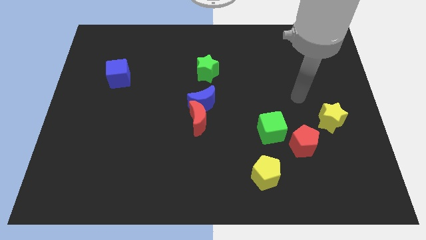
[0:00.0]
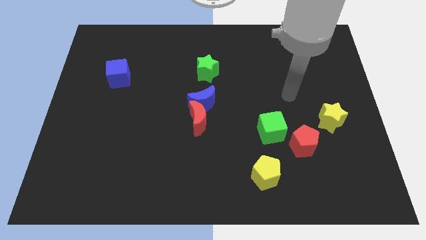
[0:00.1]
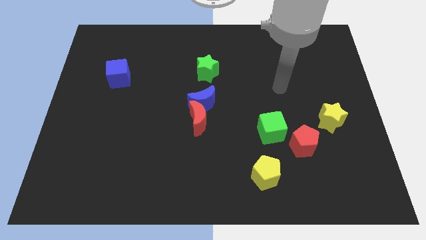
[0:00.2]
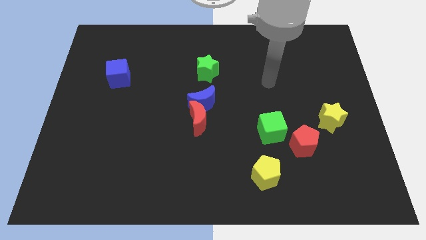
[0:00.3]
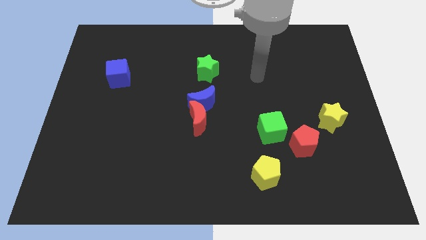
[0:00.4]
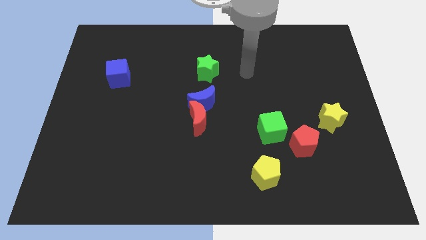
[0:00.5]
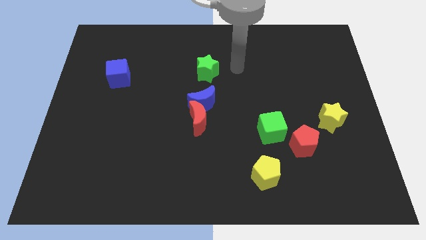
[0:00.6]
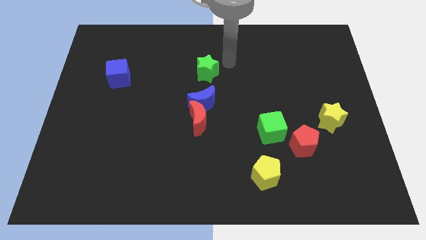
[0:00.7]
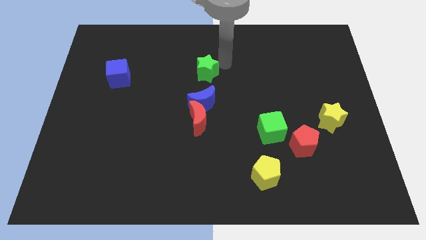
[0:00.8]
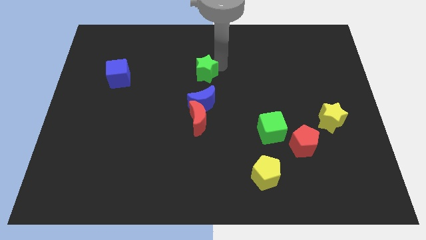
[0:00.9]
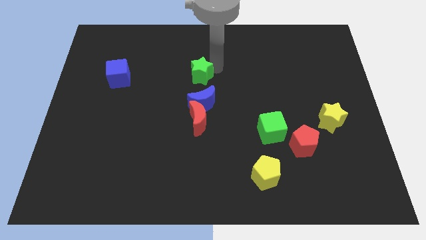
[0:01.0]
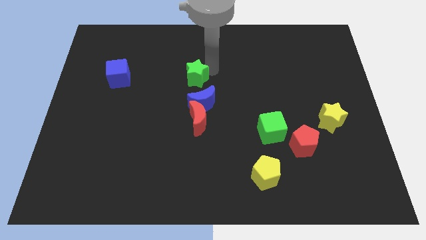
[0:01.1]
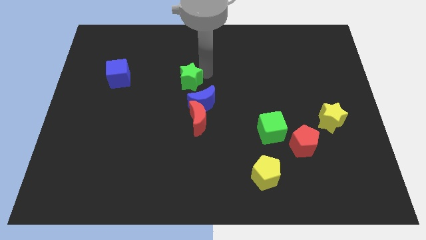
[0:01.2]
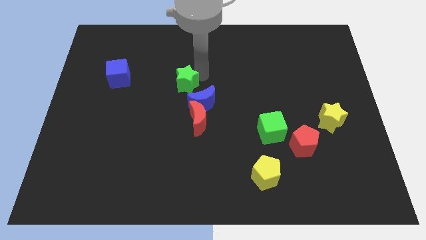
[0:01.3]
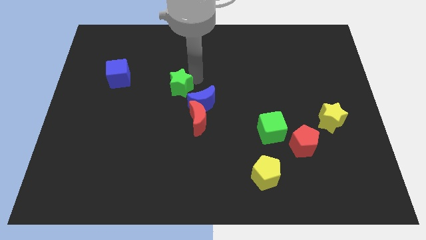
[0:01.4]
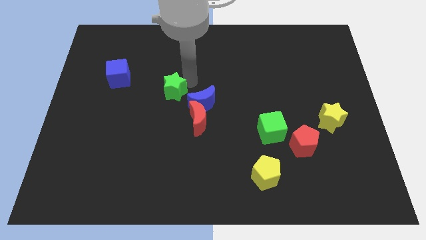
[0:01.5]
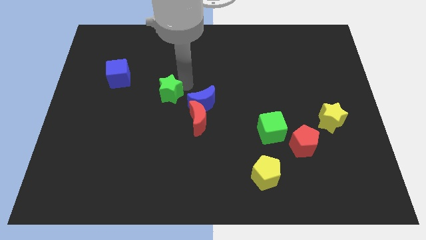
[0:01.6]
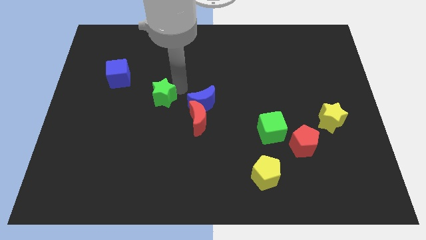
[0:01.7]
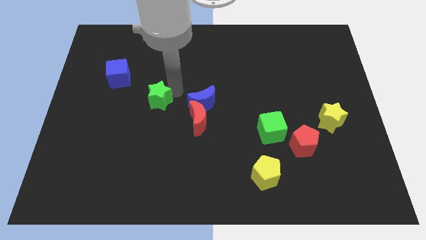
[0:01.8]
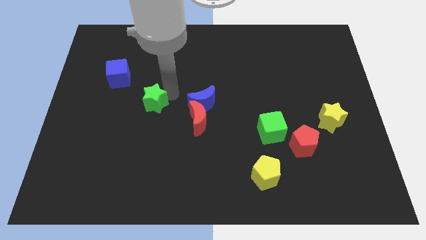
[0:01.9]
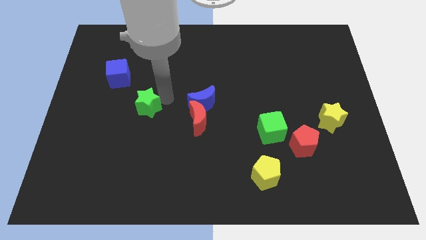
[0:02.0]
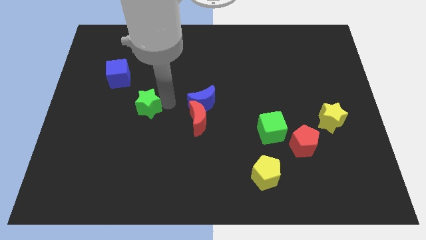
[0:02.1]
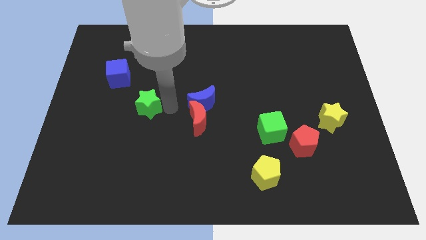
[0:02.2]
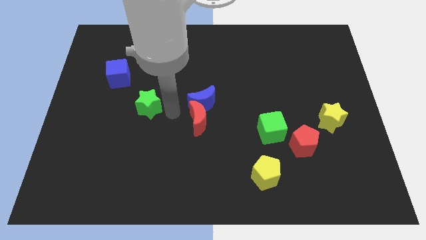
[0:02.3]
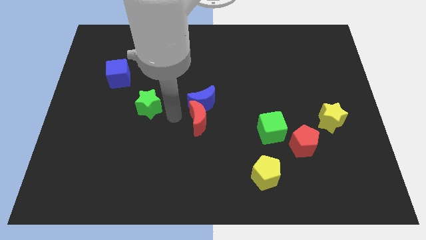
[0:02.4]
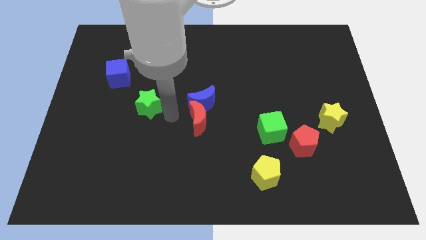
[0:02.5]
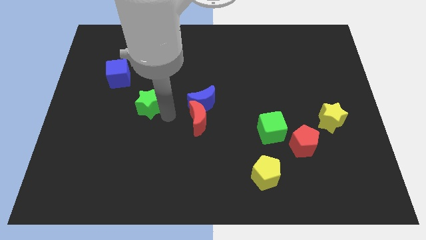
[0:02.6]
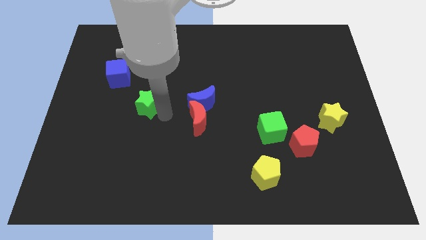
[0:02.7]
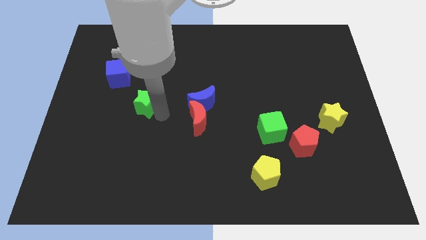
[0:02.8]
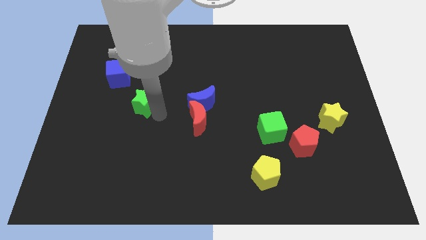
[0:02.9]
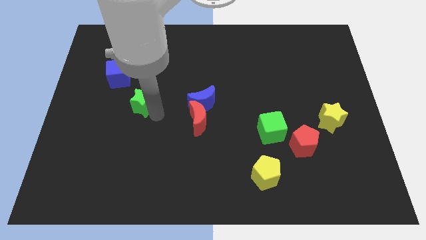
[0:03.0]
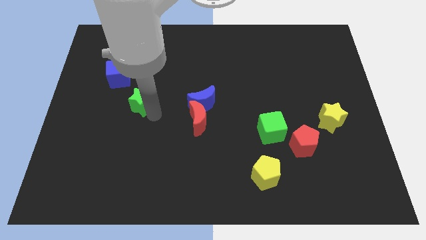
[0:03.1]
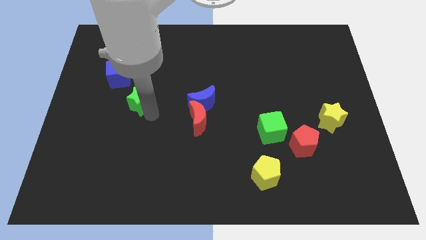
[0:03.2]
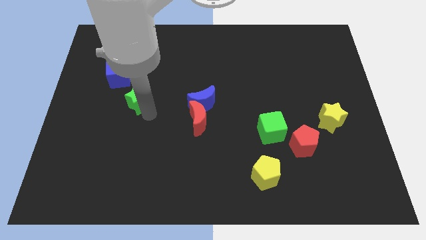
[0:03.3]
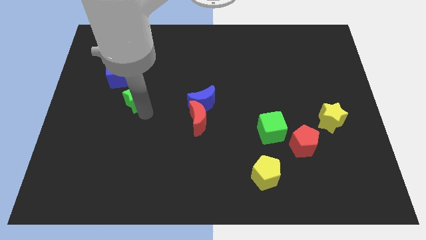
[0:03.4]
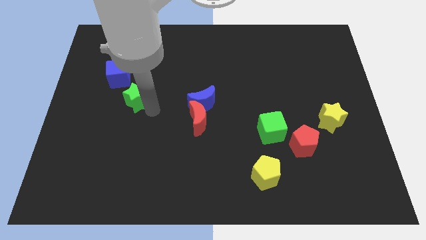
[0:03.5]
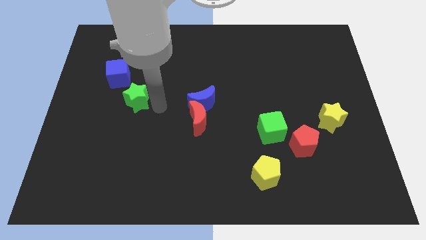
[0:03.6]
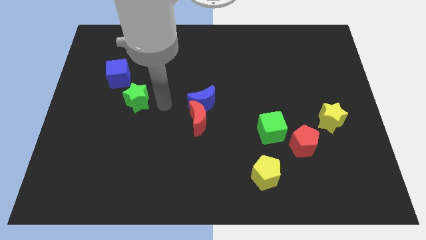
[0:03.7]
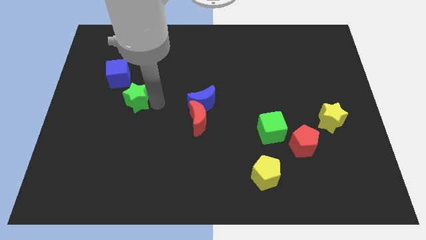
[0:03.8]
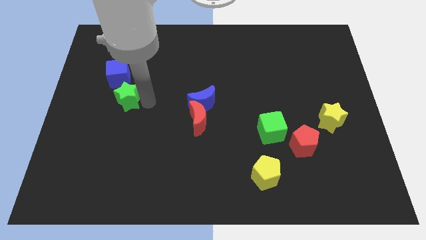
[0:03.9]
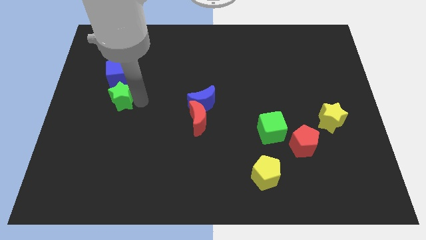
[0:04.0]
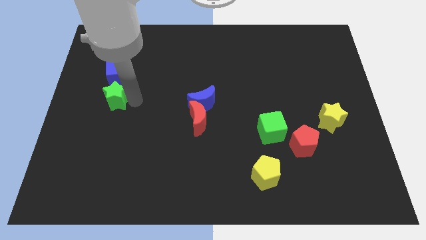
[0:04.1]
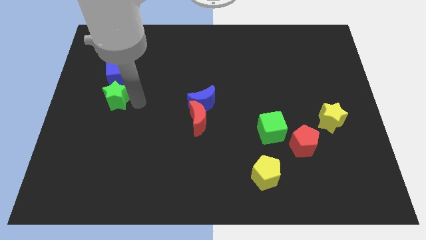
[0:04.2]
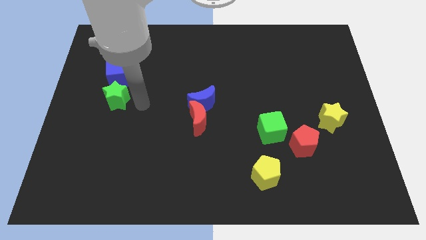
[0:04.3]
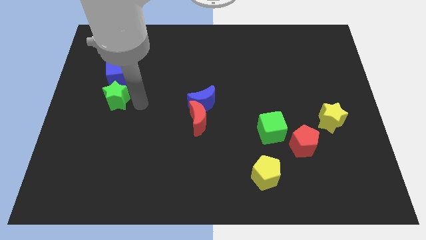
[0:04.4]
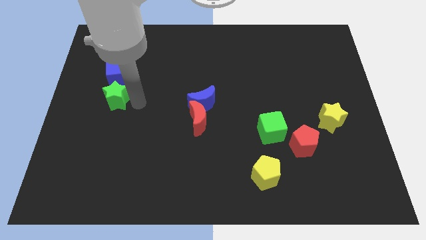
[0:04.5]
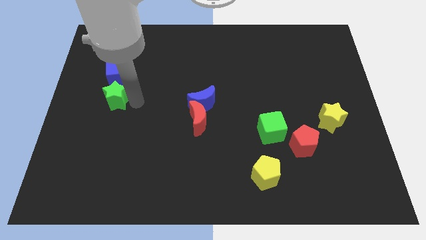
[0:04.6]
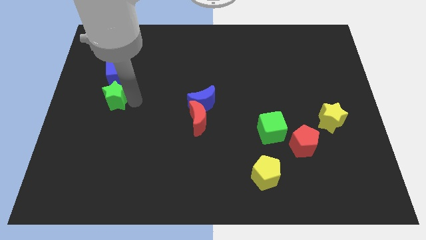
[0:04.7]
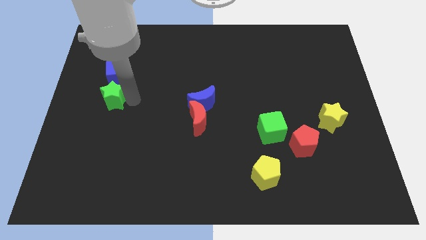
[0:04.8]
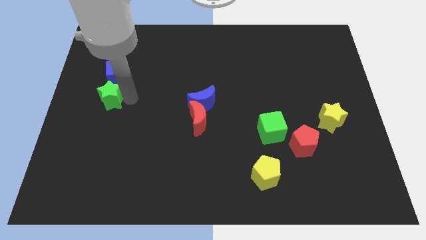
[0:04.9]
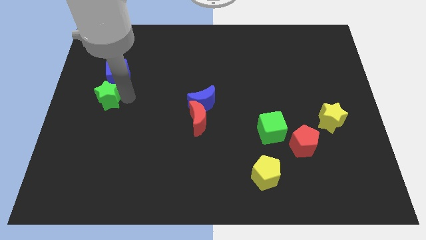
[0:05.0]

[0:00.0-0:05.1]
push the green star to the center left
